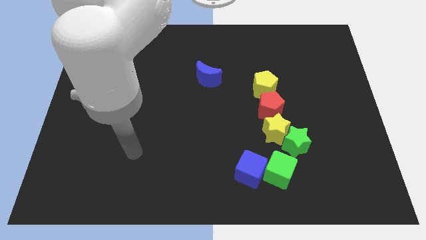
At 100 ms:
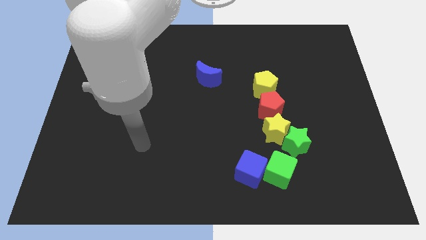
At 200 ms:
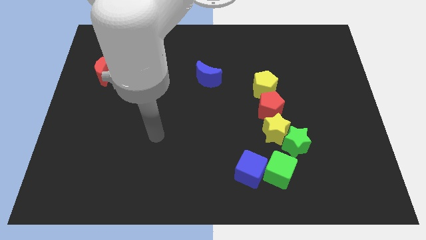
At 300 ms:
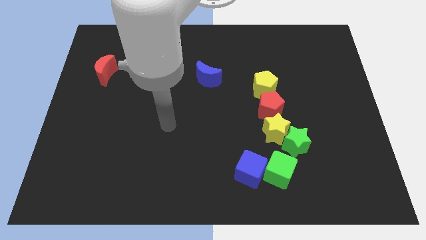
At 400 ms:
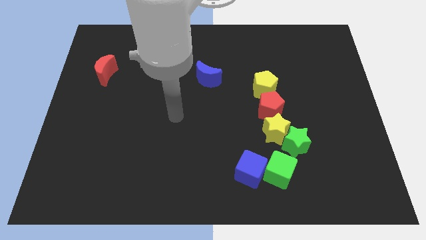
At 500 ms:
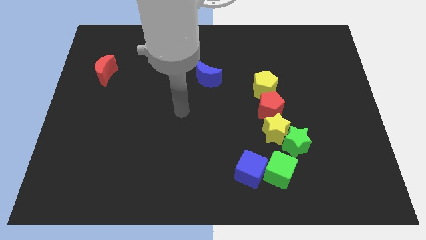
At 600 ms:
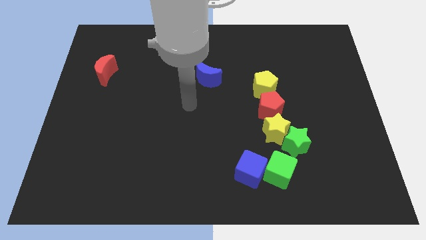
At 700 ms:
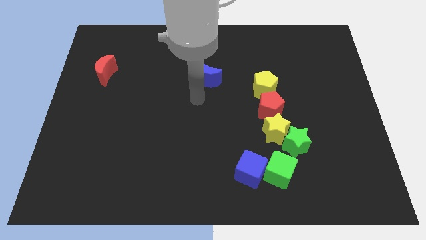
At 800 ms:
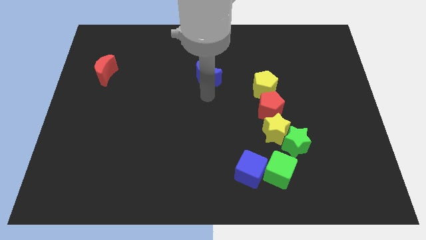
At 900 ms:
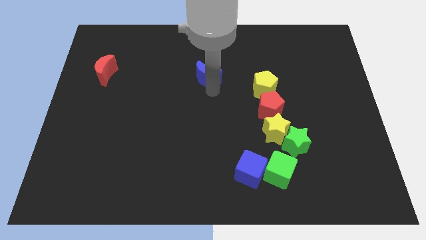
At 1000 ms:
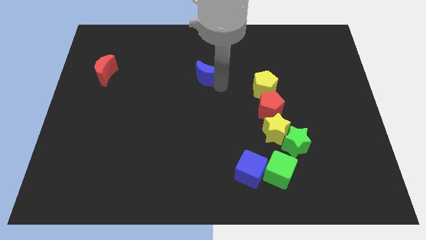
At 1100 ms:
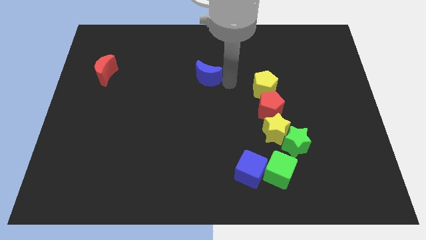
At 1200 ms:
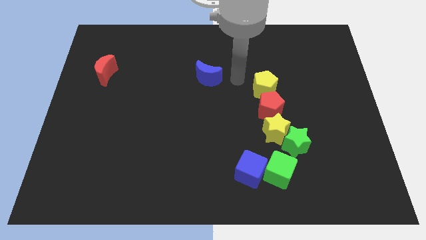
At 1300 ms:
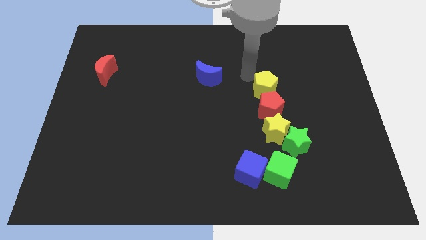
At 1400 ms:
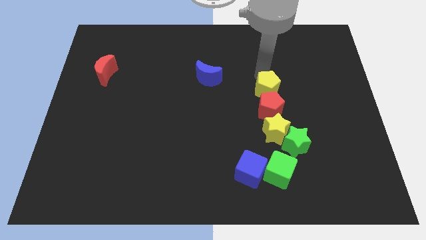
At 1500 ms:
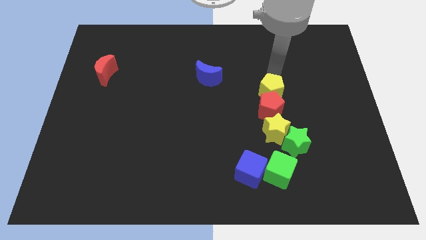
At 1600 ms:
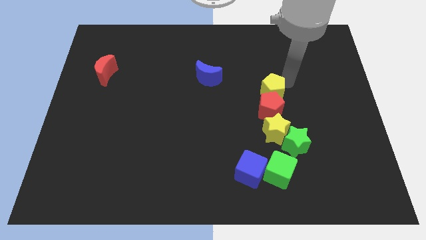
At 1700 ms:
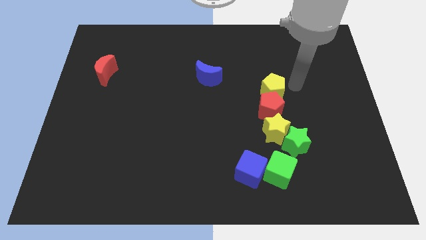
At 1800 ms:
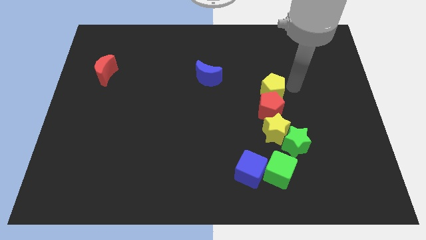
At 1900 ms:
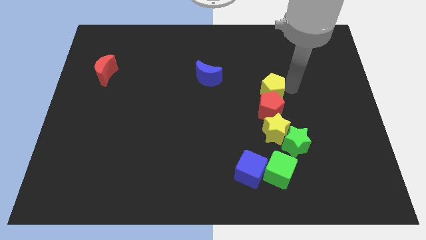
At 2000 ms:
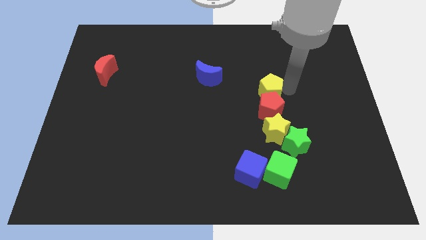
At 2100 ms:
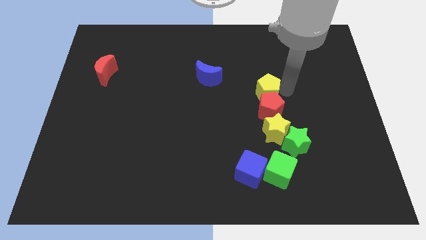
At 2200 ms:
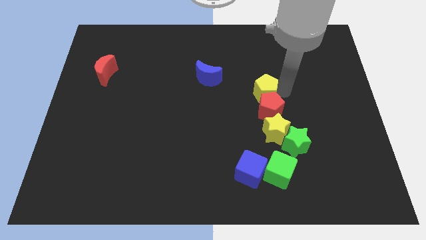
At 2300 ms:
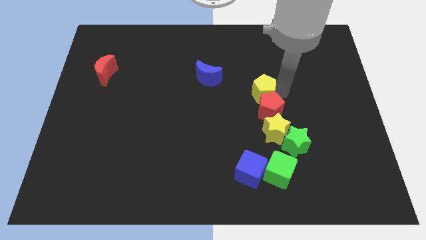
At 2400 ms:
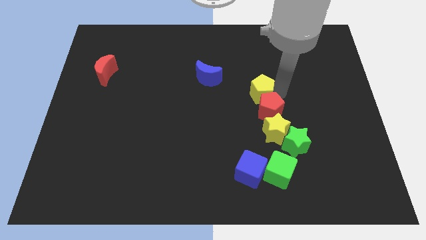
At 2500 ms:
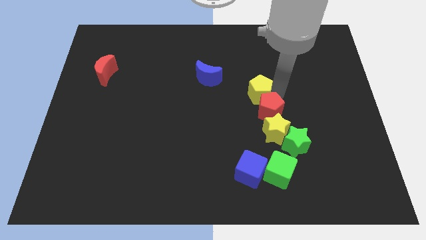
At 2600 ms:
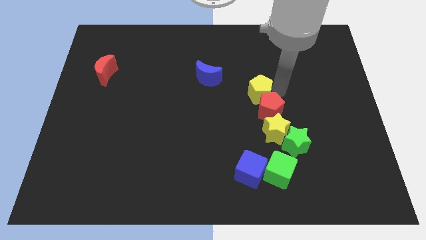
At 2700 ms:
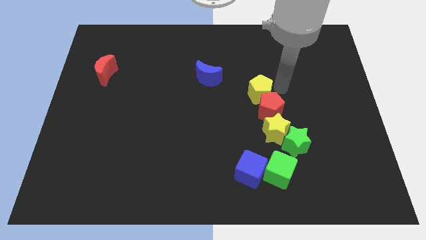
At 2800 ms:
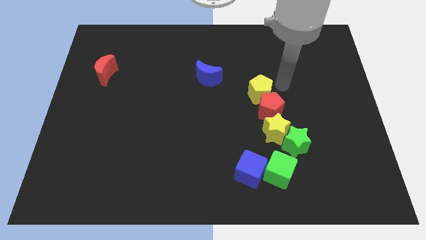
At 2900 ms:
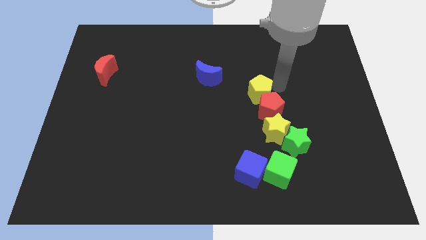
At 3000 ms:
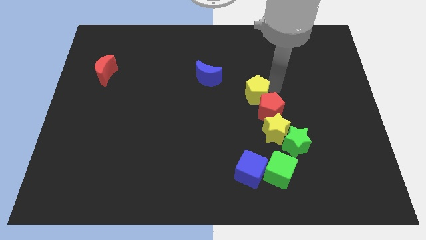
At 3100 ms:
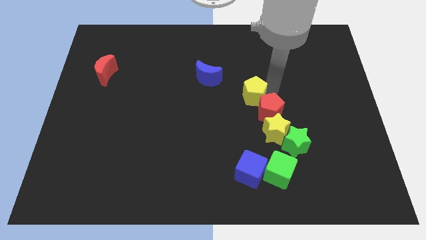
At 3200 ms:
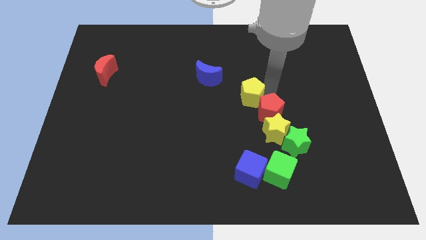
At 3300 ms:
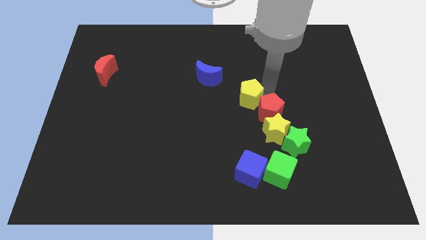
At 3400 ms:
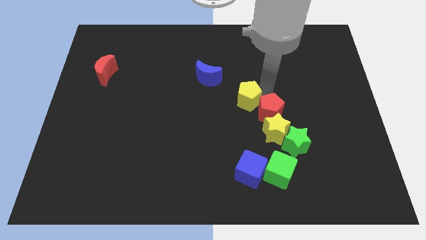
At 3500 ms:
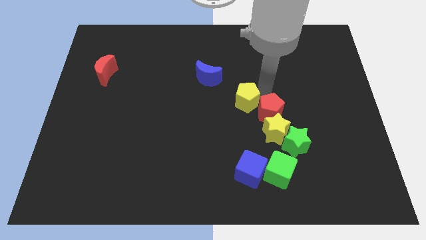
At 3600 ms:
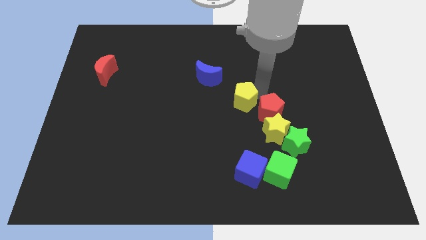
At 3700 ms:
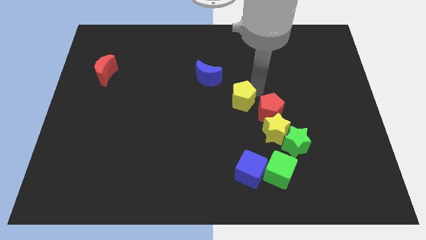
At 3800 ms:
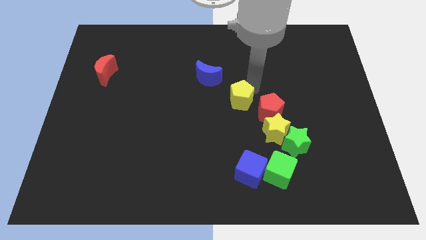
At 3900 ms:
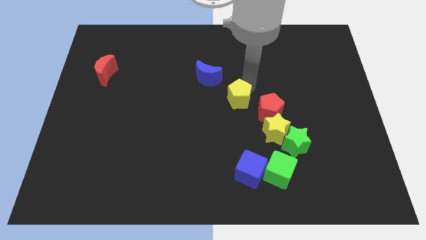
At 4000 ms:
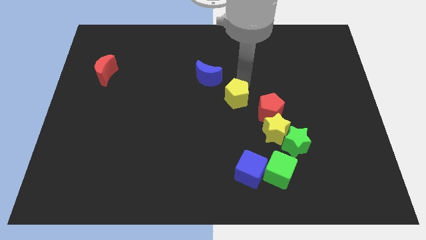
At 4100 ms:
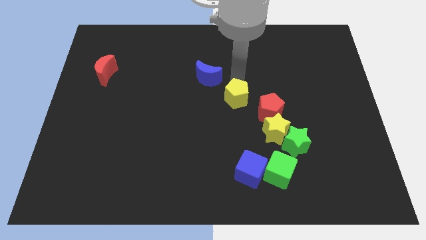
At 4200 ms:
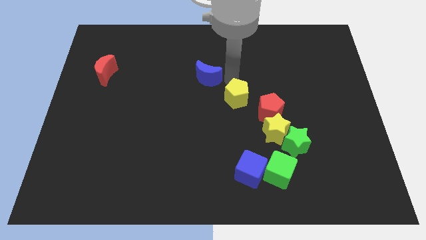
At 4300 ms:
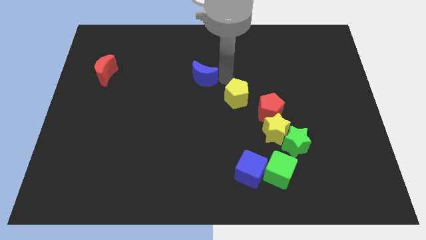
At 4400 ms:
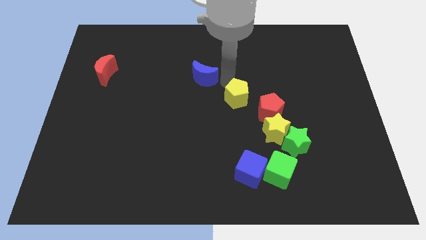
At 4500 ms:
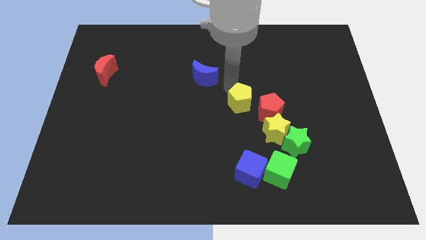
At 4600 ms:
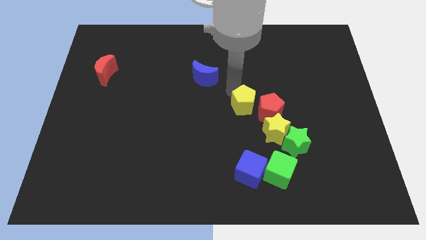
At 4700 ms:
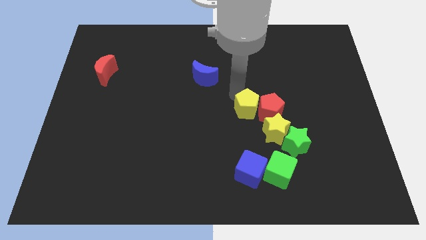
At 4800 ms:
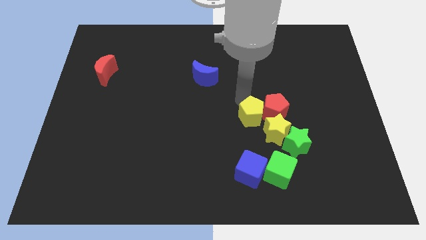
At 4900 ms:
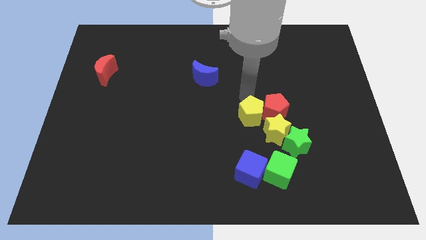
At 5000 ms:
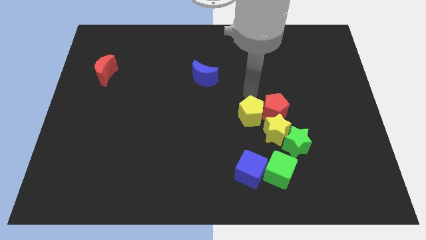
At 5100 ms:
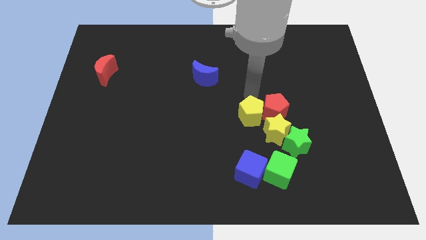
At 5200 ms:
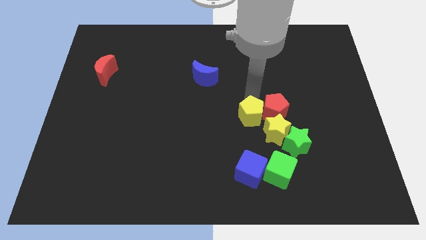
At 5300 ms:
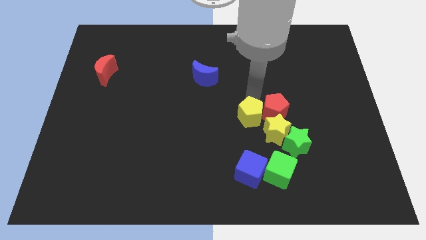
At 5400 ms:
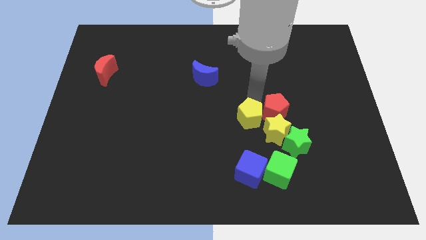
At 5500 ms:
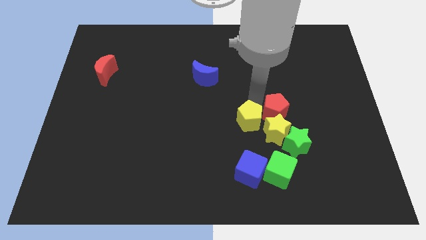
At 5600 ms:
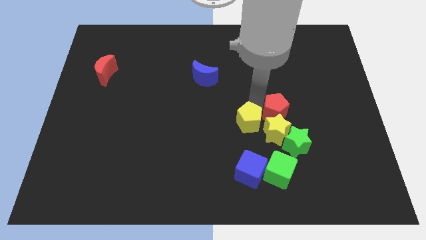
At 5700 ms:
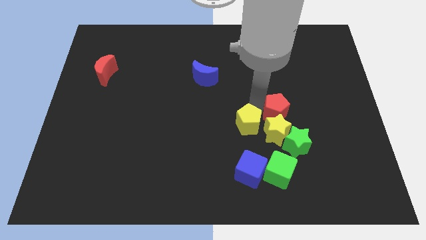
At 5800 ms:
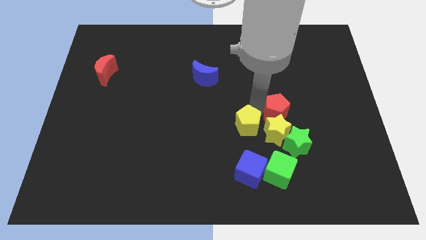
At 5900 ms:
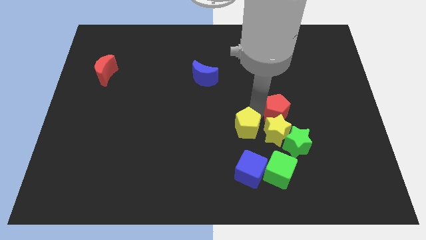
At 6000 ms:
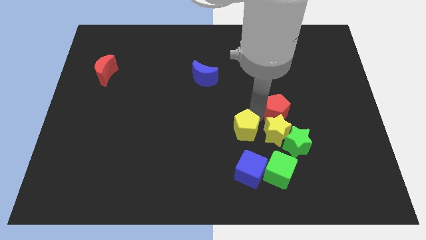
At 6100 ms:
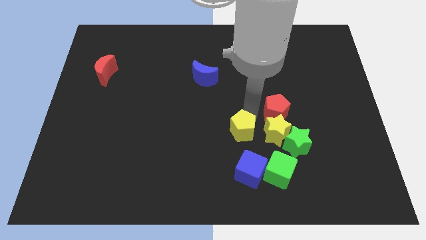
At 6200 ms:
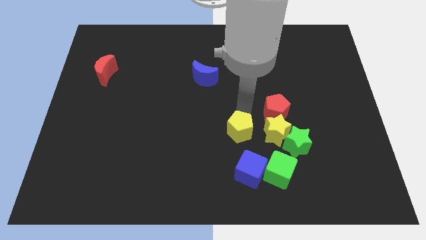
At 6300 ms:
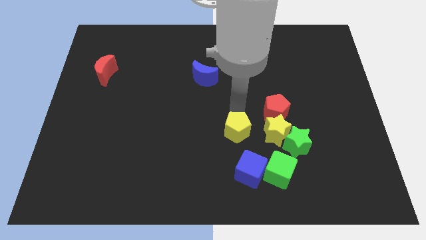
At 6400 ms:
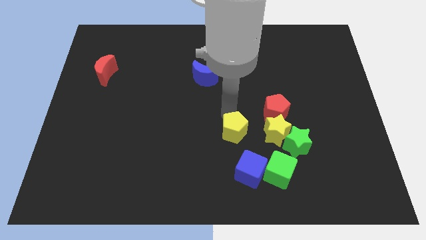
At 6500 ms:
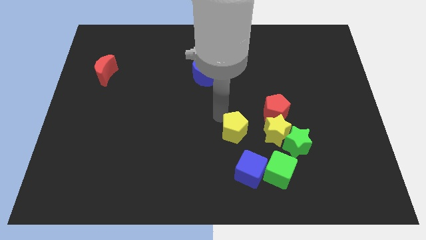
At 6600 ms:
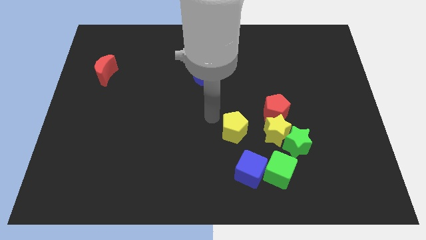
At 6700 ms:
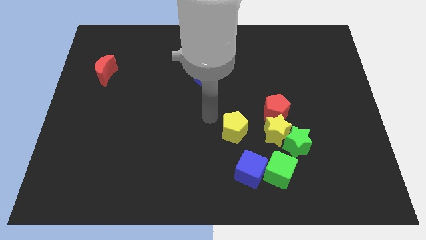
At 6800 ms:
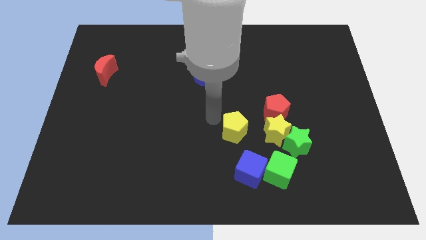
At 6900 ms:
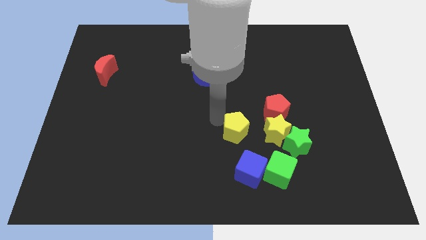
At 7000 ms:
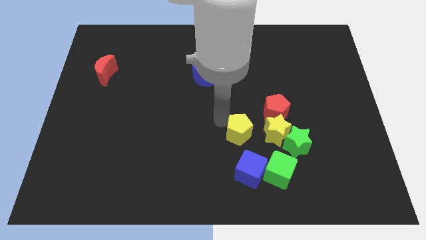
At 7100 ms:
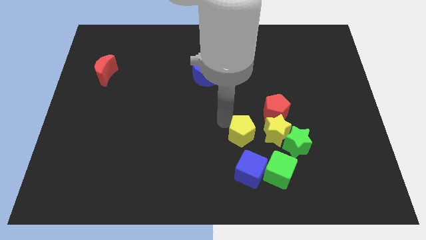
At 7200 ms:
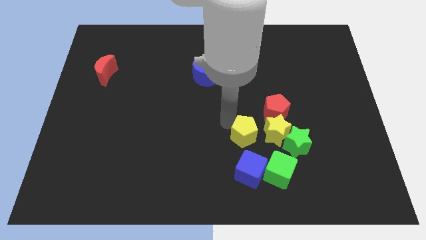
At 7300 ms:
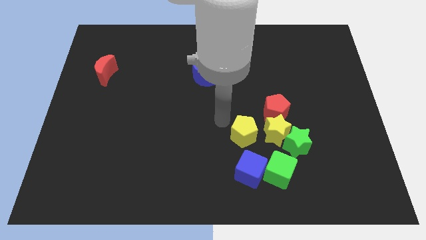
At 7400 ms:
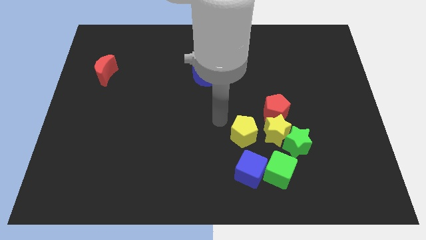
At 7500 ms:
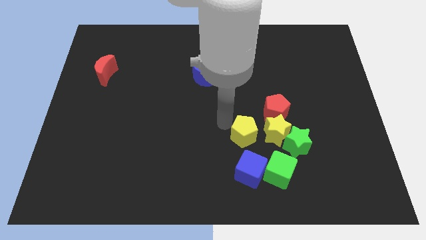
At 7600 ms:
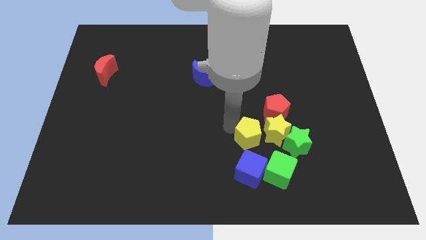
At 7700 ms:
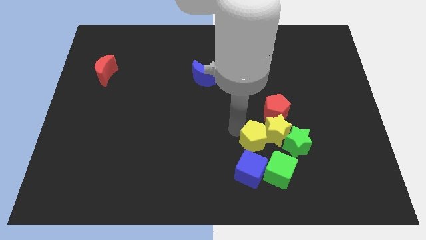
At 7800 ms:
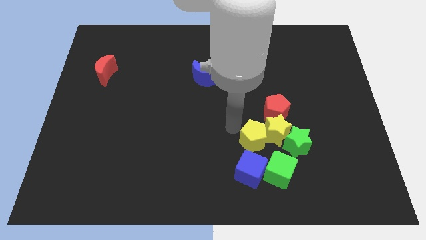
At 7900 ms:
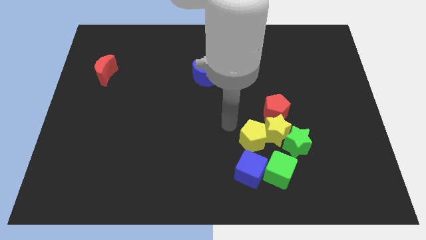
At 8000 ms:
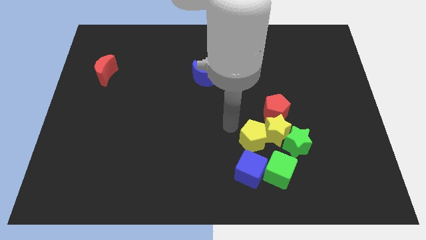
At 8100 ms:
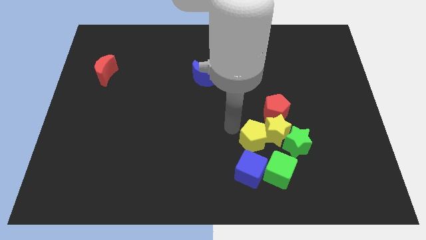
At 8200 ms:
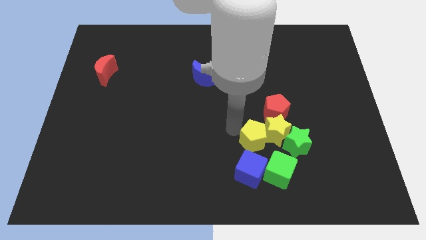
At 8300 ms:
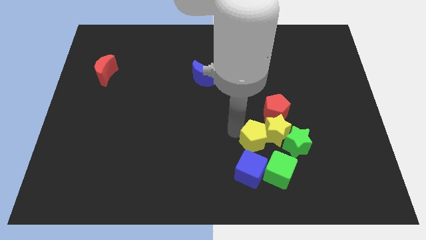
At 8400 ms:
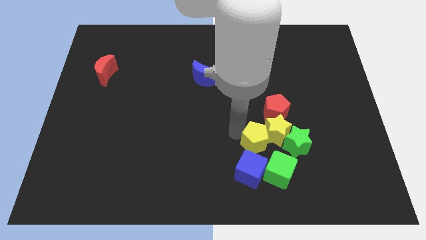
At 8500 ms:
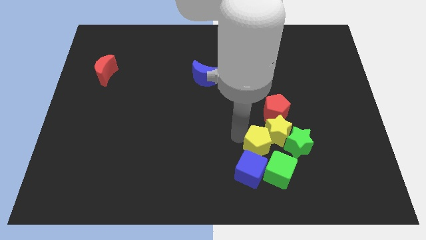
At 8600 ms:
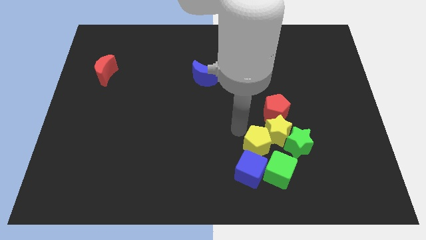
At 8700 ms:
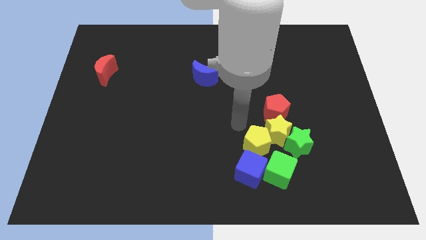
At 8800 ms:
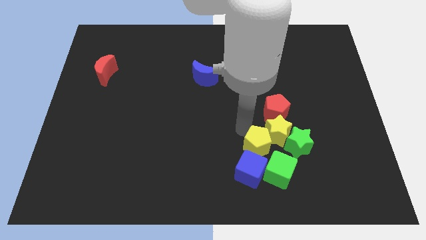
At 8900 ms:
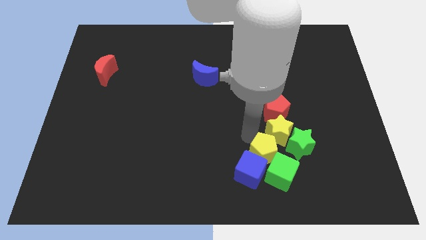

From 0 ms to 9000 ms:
move the yellow pentagon close to the green cube
